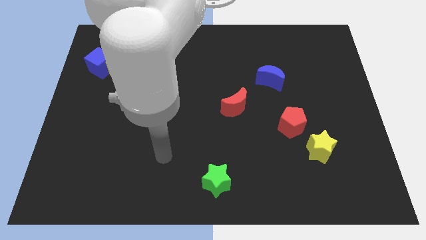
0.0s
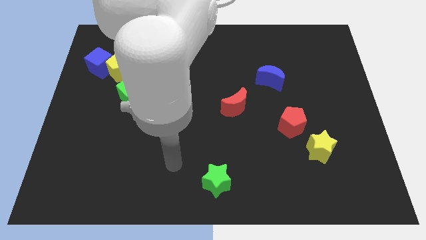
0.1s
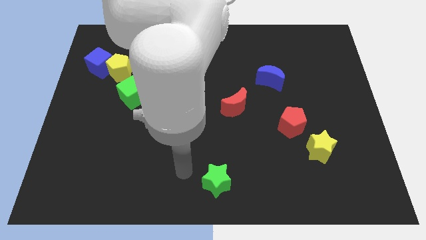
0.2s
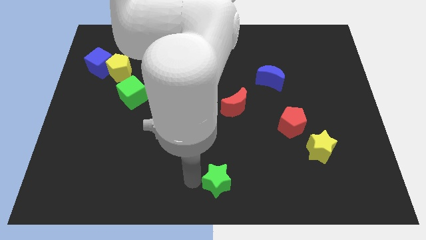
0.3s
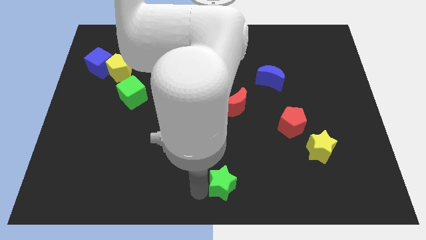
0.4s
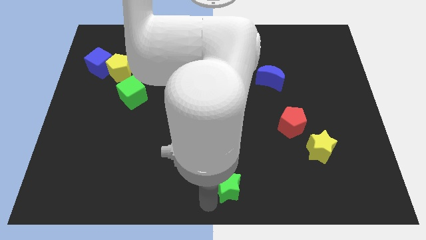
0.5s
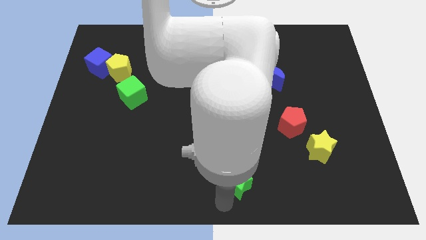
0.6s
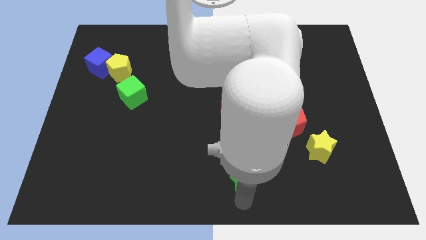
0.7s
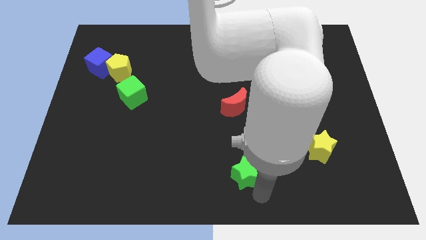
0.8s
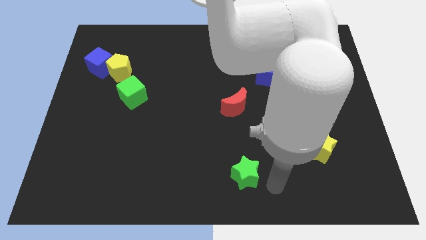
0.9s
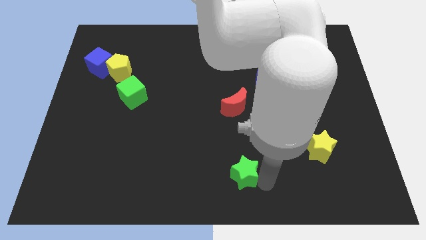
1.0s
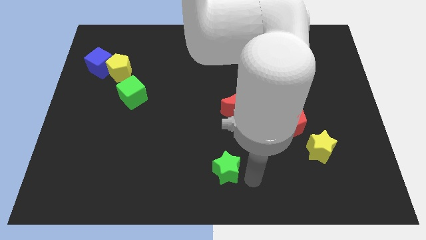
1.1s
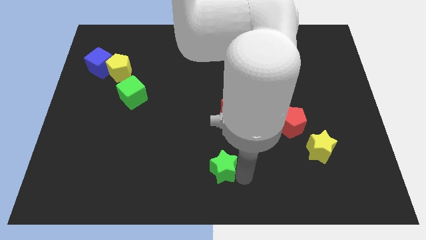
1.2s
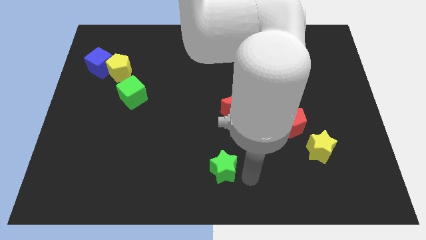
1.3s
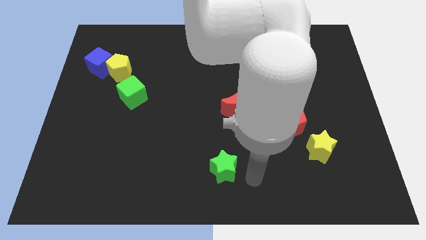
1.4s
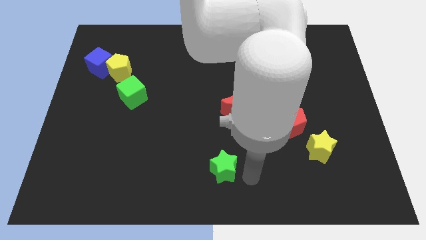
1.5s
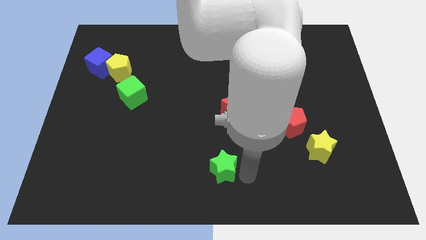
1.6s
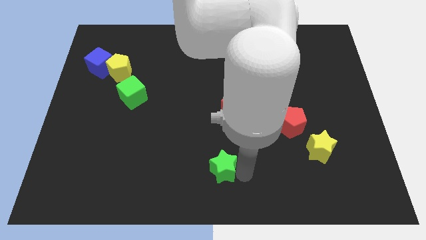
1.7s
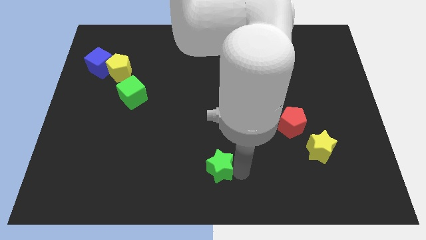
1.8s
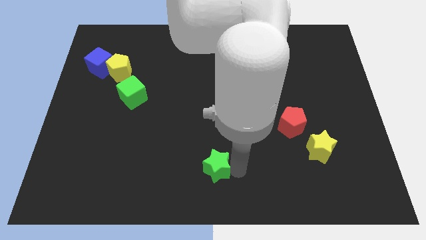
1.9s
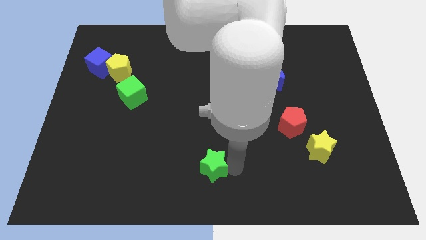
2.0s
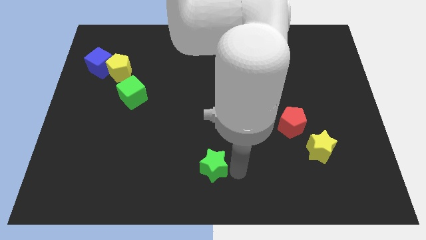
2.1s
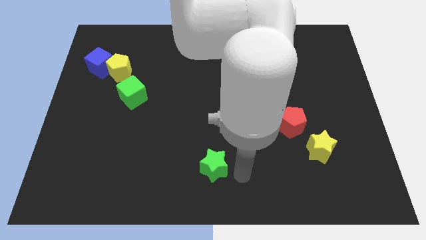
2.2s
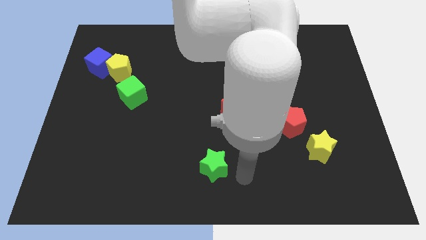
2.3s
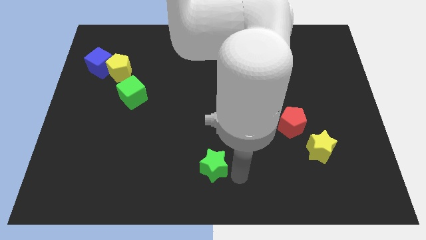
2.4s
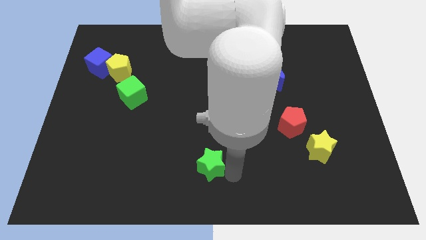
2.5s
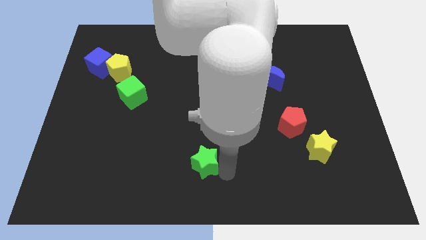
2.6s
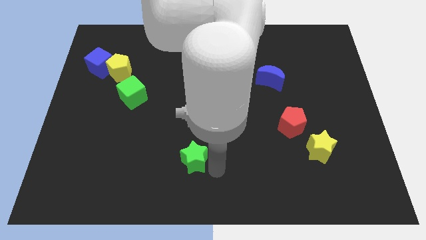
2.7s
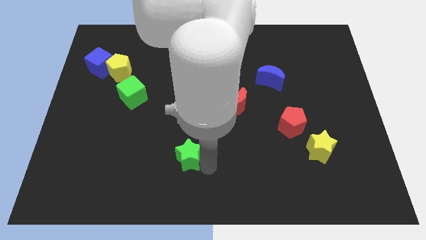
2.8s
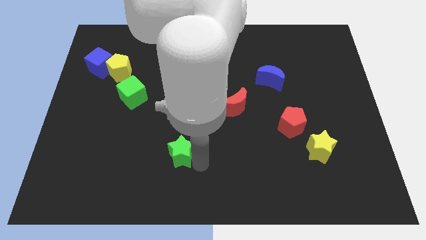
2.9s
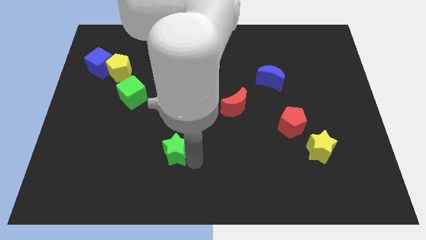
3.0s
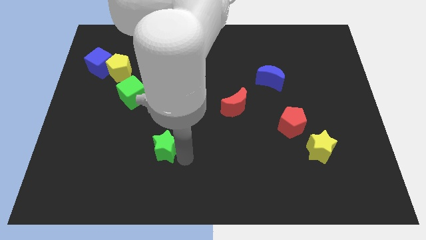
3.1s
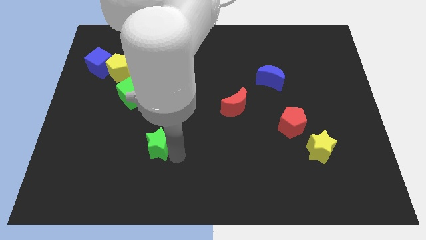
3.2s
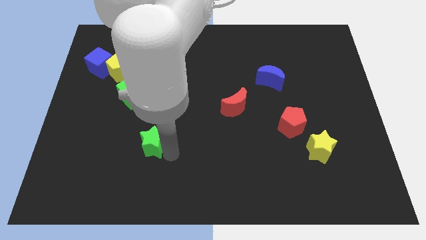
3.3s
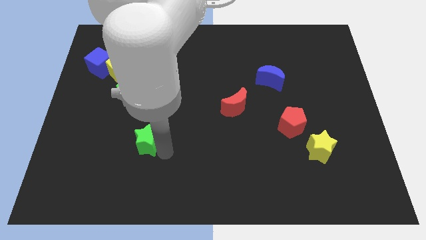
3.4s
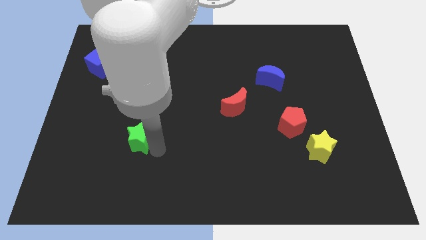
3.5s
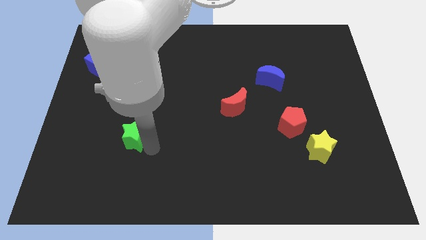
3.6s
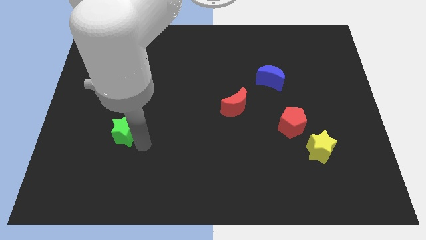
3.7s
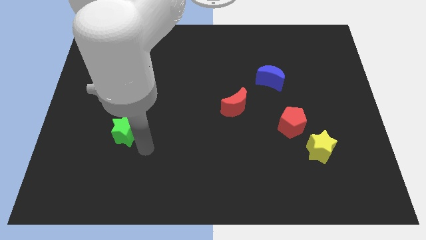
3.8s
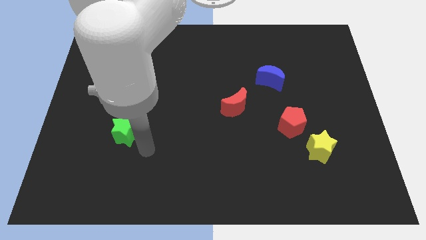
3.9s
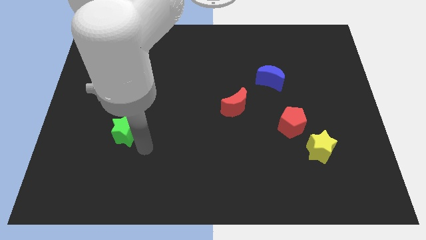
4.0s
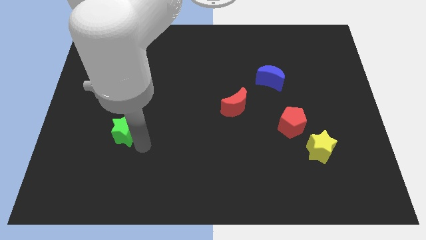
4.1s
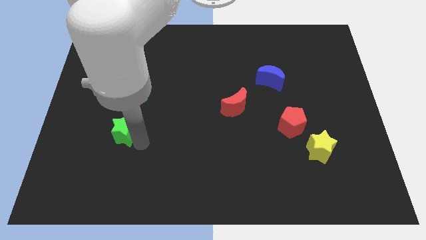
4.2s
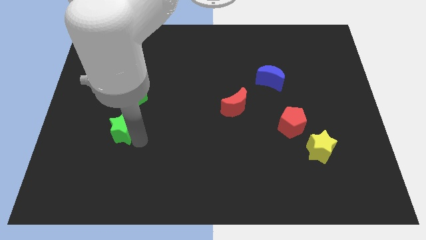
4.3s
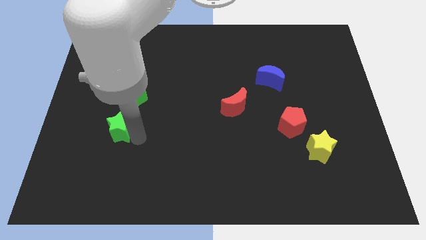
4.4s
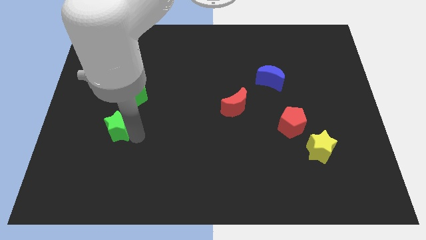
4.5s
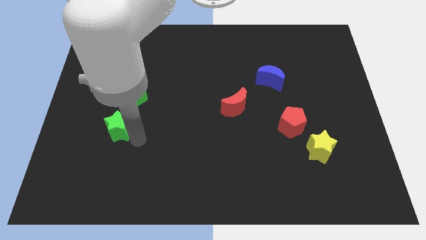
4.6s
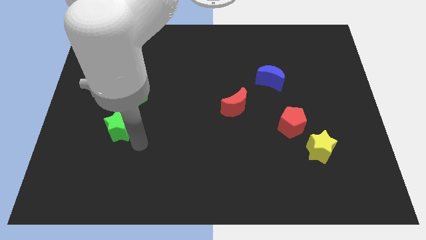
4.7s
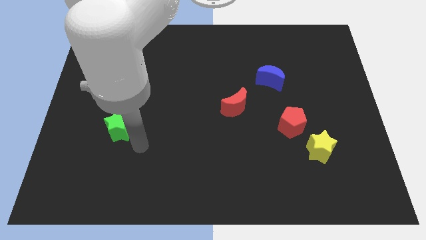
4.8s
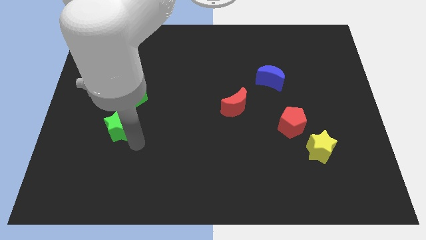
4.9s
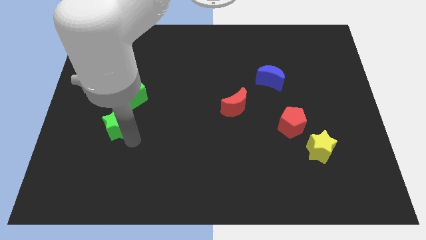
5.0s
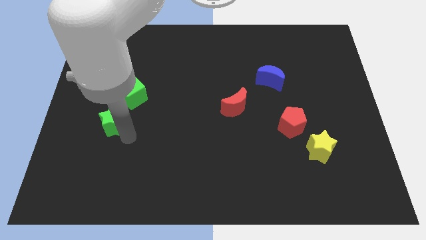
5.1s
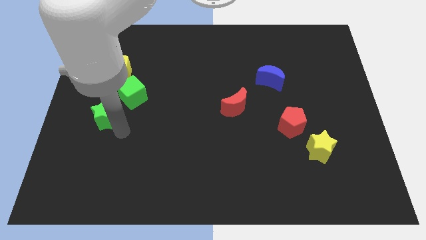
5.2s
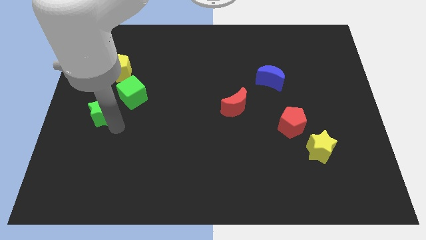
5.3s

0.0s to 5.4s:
slide the green star to the center left

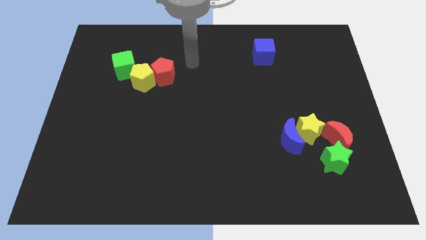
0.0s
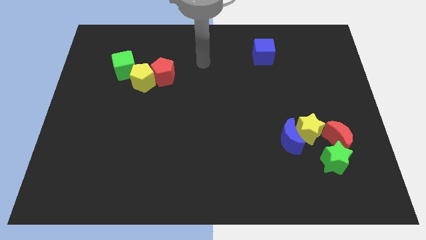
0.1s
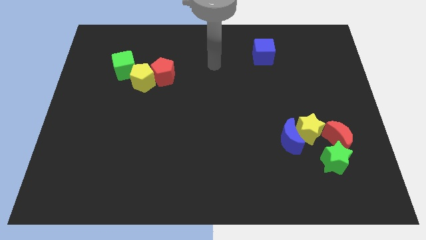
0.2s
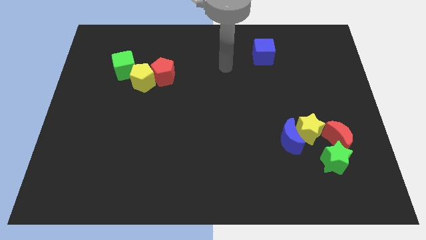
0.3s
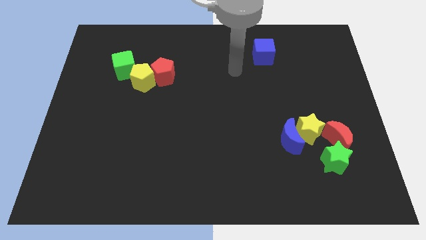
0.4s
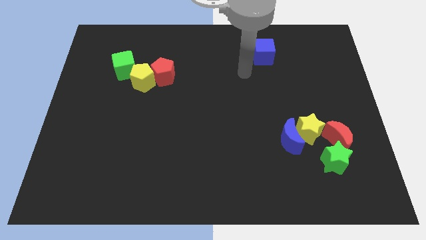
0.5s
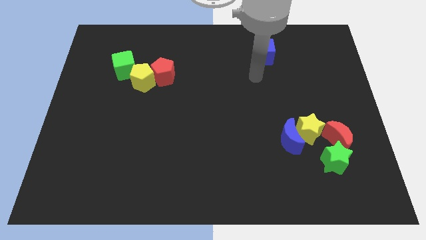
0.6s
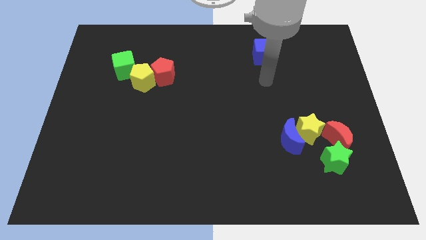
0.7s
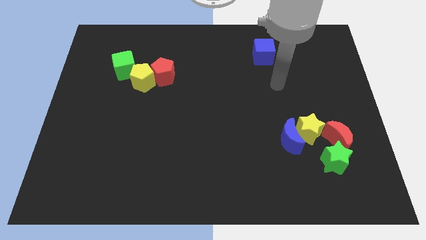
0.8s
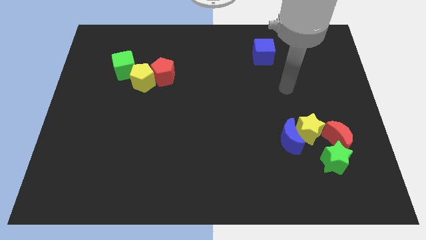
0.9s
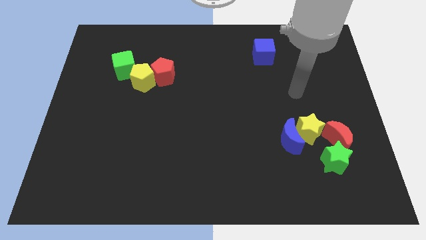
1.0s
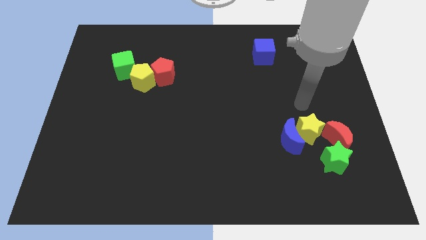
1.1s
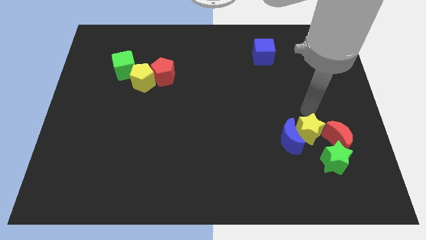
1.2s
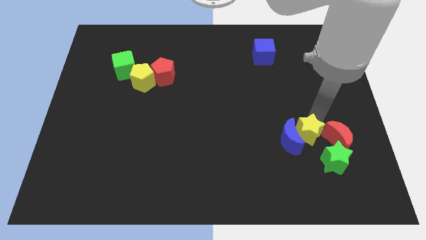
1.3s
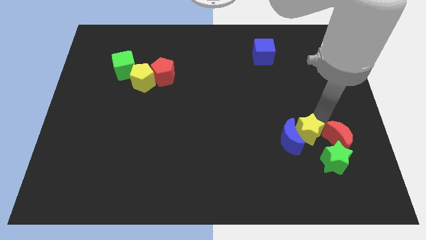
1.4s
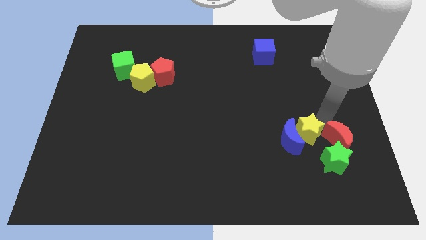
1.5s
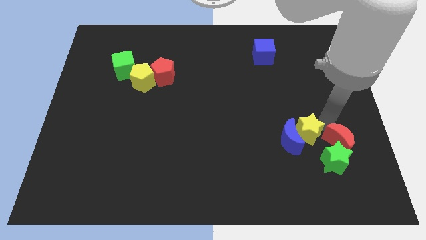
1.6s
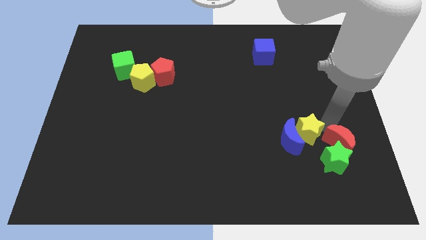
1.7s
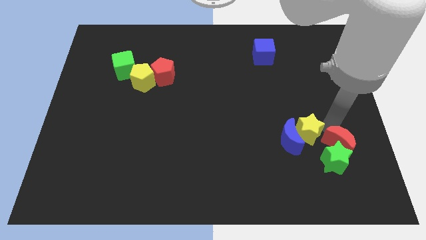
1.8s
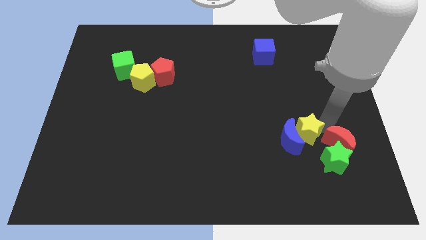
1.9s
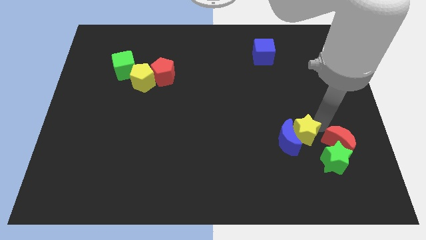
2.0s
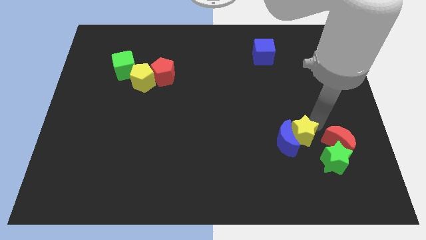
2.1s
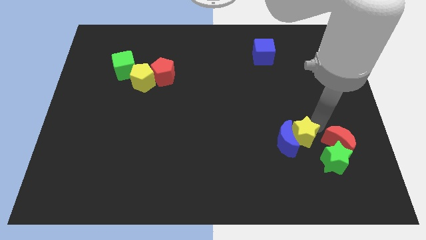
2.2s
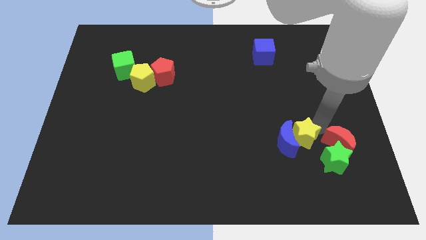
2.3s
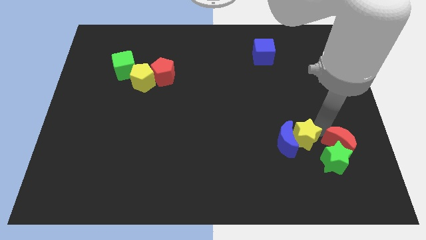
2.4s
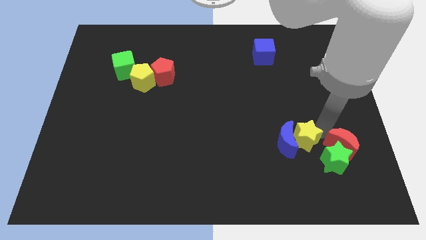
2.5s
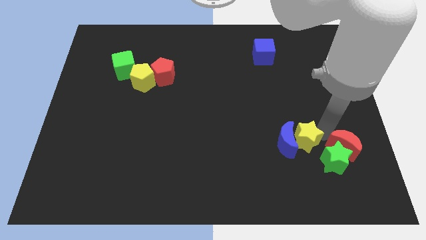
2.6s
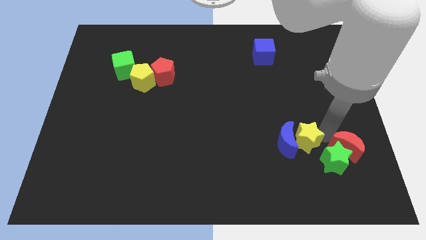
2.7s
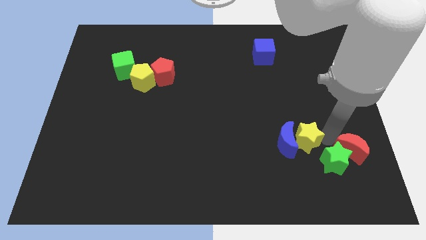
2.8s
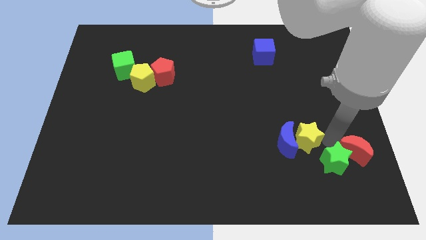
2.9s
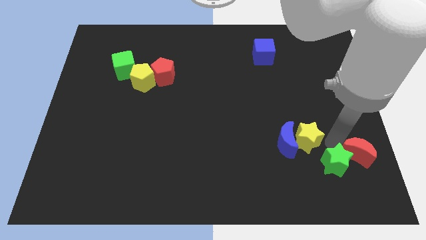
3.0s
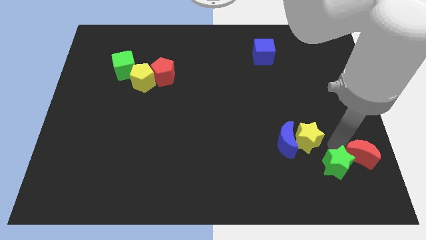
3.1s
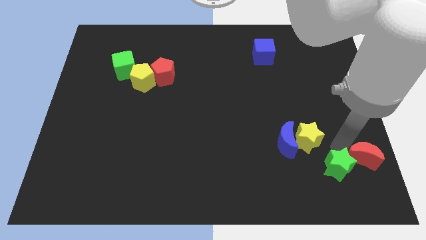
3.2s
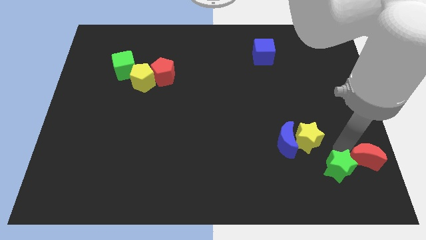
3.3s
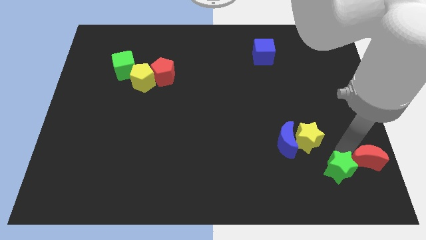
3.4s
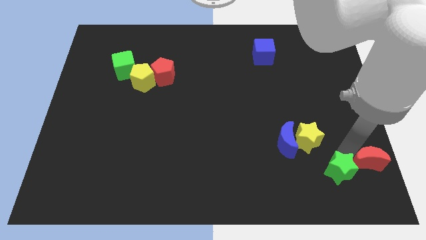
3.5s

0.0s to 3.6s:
slide the red moon to the lower right corner
